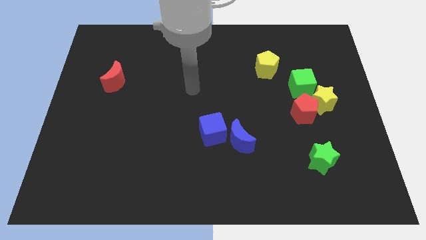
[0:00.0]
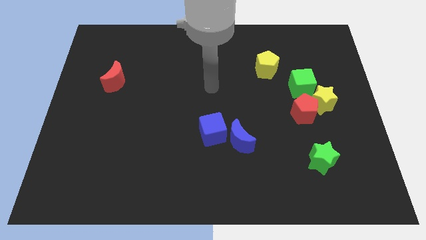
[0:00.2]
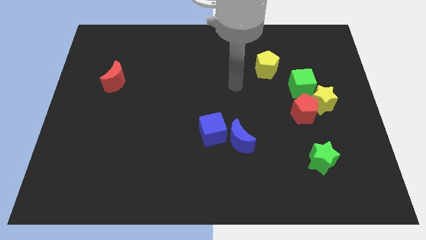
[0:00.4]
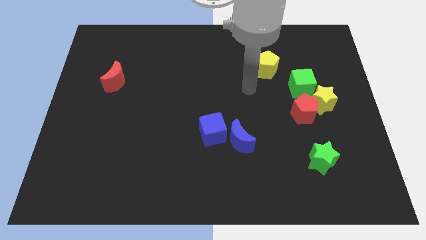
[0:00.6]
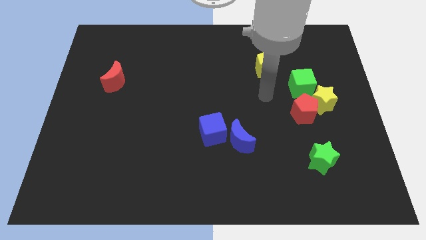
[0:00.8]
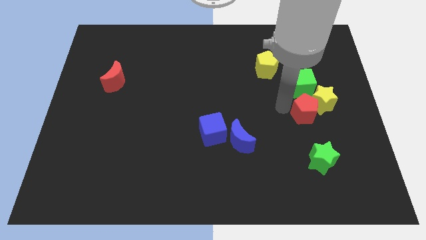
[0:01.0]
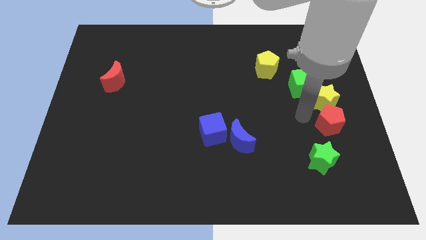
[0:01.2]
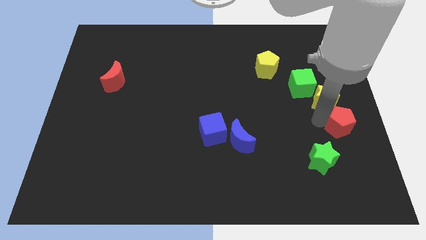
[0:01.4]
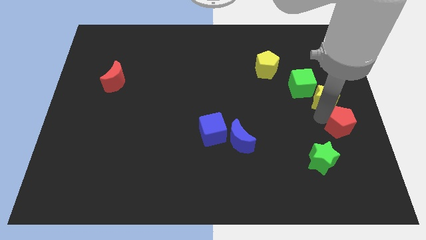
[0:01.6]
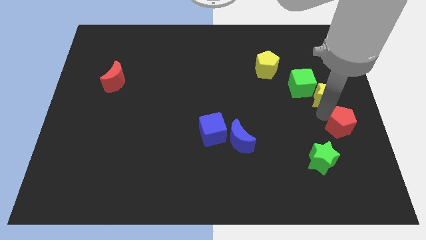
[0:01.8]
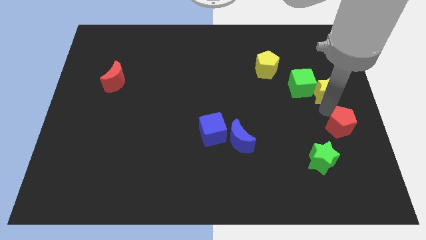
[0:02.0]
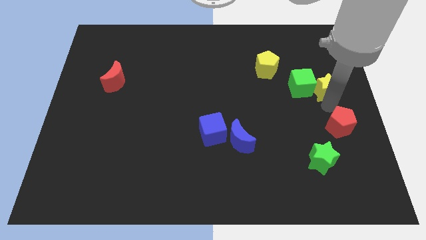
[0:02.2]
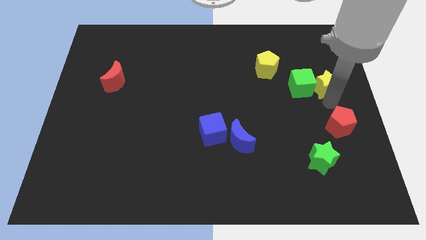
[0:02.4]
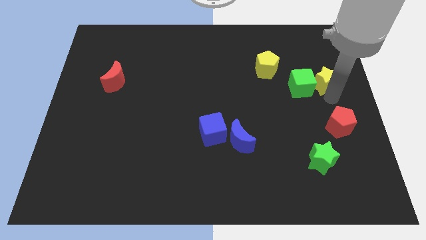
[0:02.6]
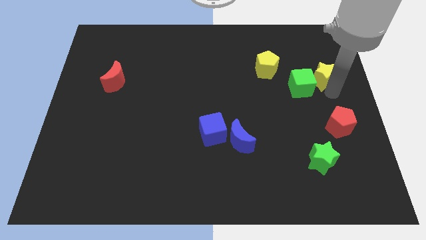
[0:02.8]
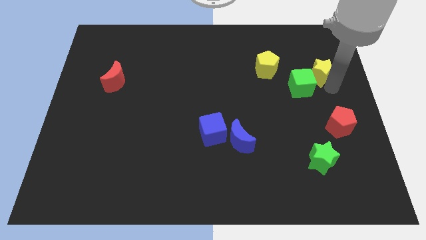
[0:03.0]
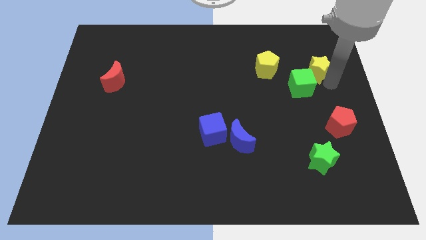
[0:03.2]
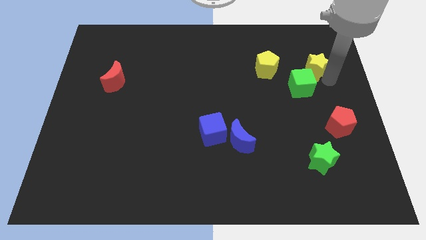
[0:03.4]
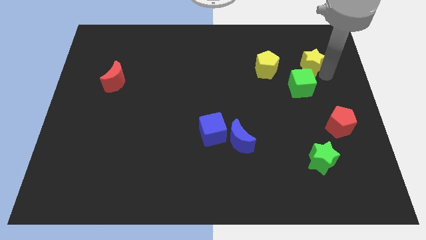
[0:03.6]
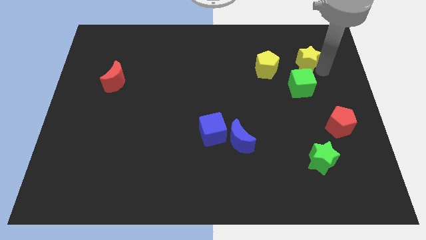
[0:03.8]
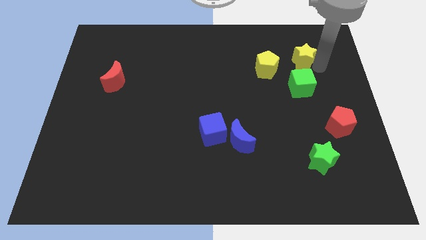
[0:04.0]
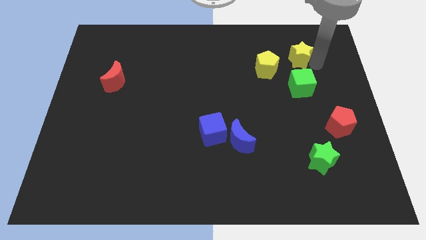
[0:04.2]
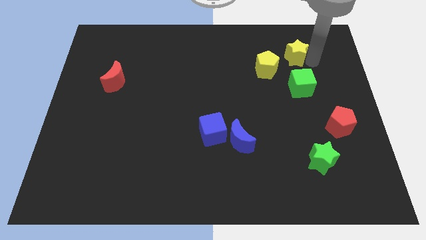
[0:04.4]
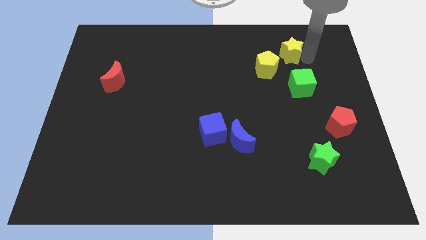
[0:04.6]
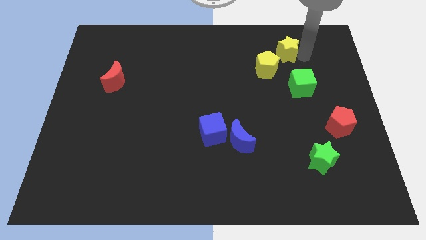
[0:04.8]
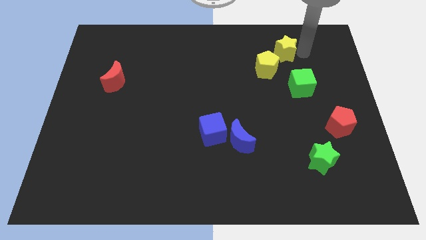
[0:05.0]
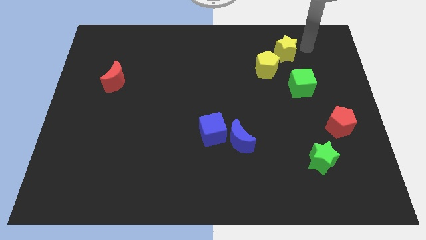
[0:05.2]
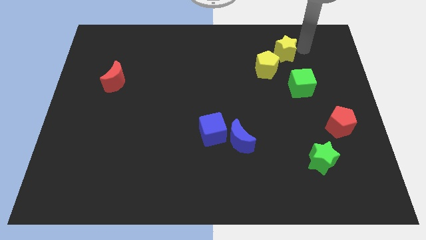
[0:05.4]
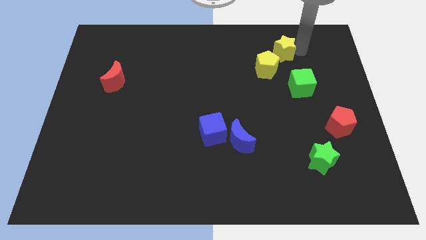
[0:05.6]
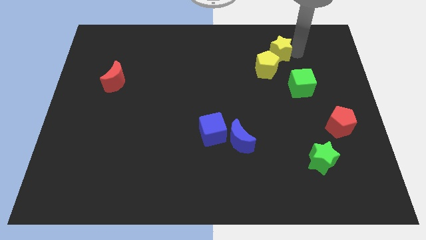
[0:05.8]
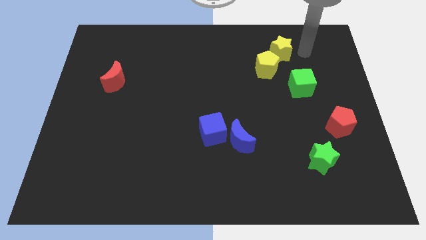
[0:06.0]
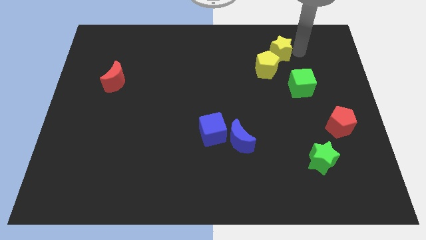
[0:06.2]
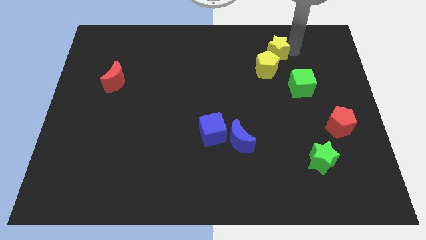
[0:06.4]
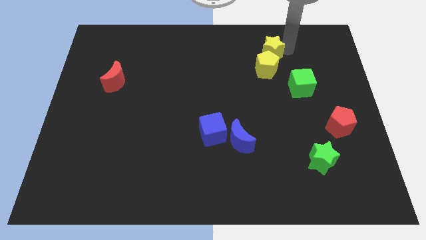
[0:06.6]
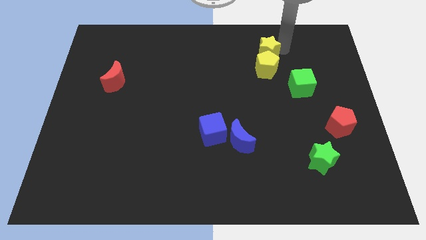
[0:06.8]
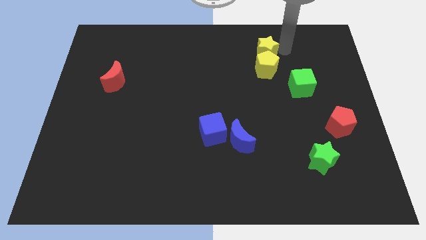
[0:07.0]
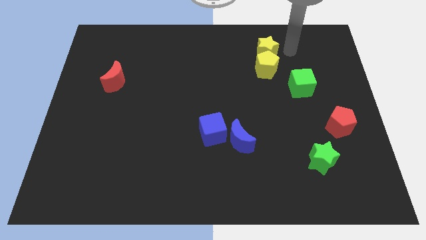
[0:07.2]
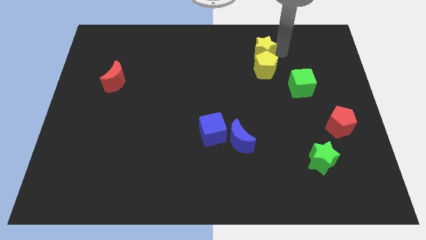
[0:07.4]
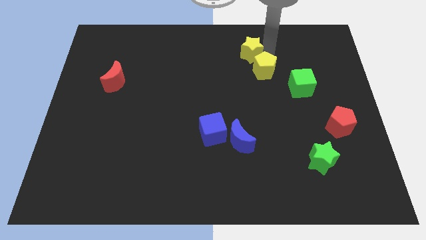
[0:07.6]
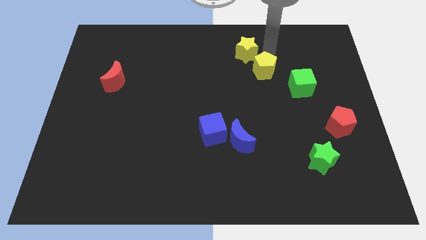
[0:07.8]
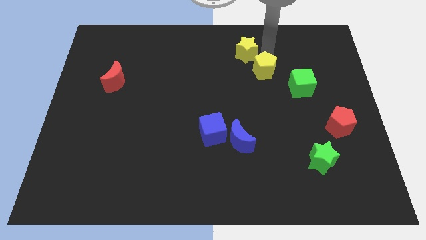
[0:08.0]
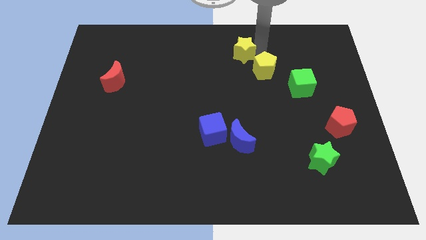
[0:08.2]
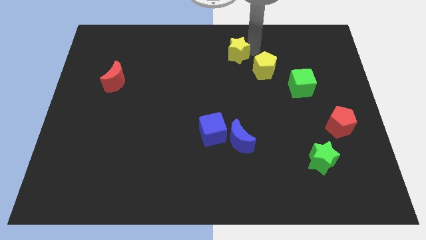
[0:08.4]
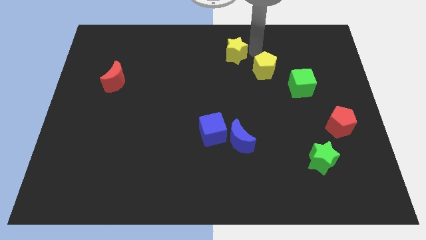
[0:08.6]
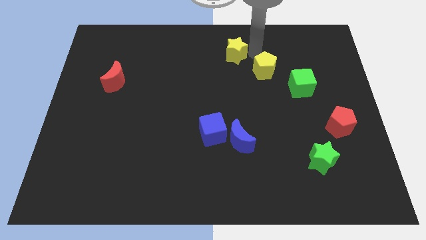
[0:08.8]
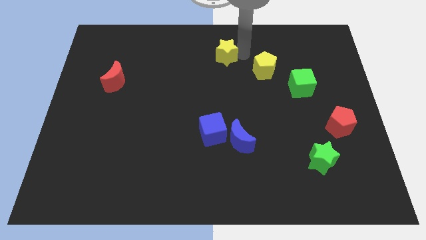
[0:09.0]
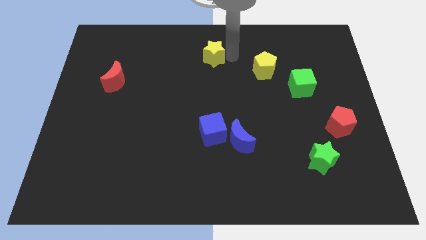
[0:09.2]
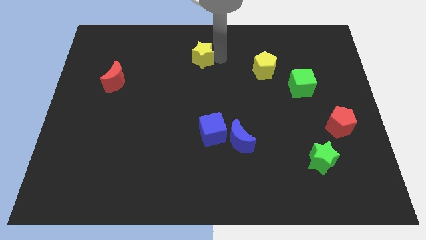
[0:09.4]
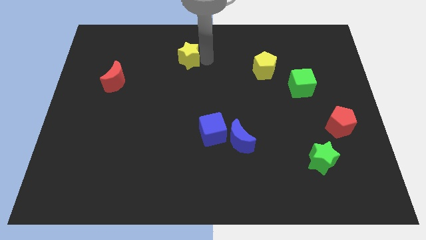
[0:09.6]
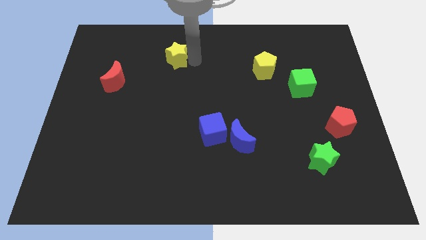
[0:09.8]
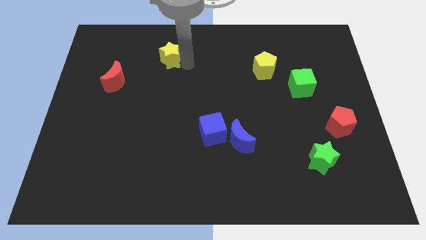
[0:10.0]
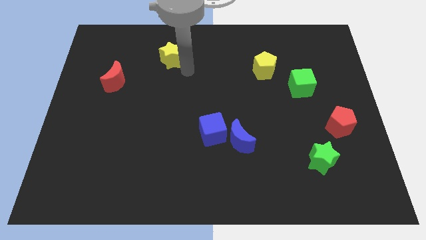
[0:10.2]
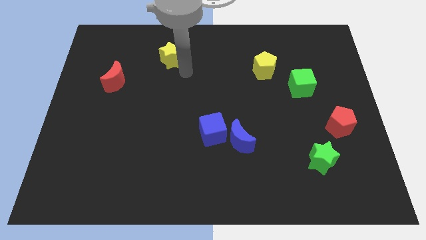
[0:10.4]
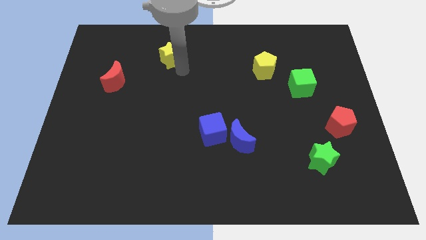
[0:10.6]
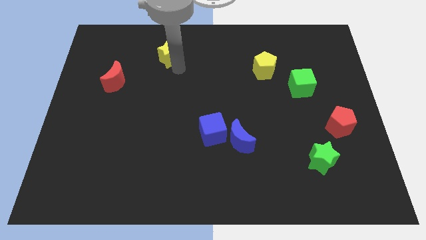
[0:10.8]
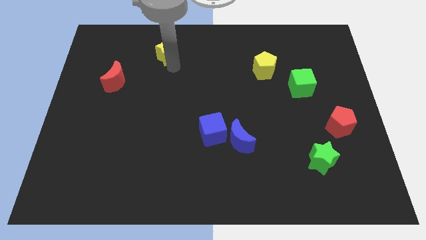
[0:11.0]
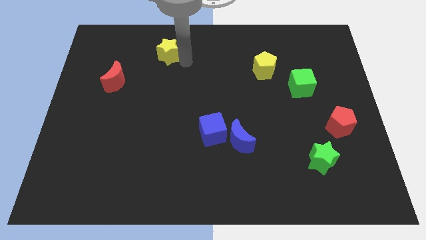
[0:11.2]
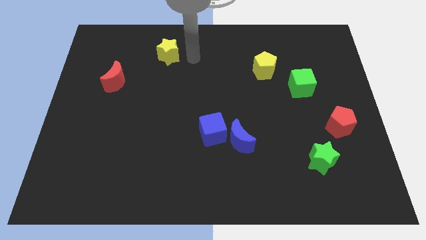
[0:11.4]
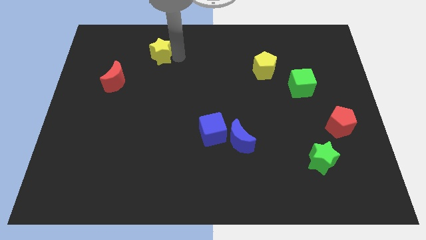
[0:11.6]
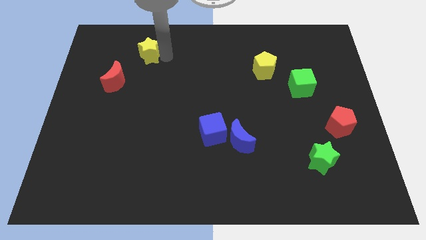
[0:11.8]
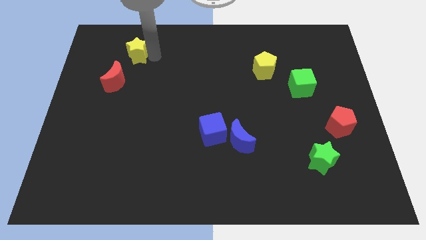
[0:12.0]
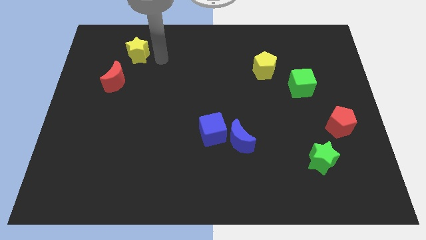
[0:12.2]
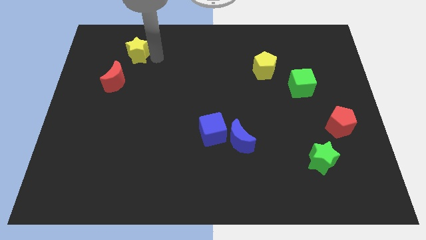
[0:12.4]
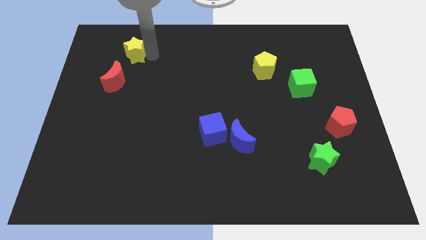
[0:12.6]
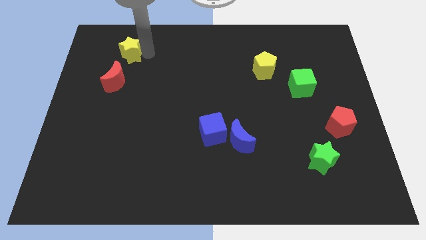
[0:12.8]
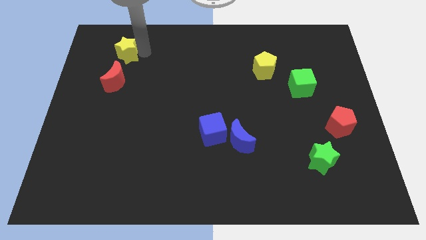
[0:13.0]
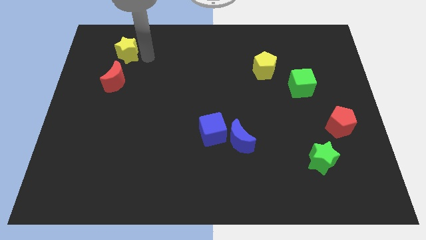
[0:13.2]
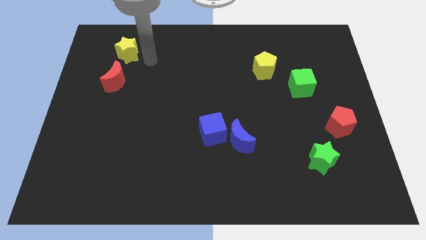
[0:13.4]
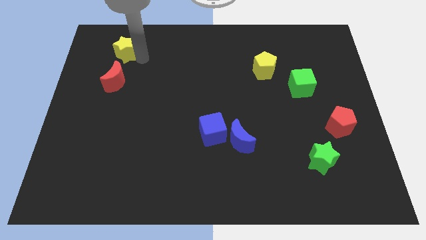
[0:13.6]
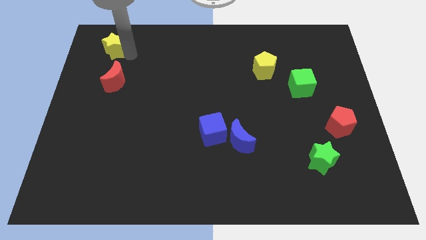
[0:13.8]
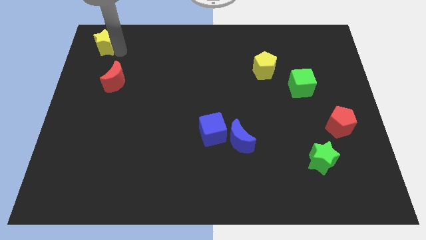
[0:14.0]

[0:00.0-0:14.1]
slide the yellow star to the top left corner
